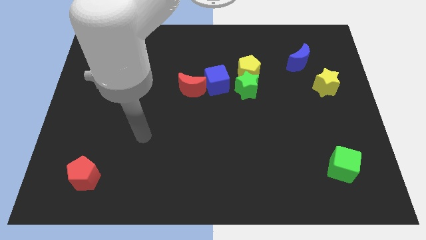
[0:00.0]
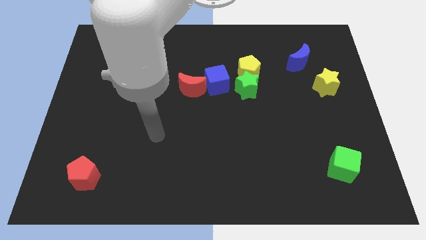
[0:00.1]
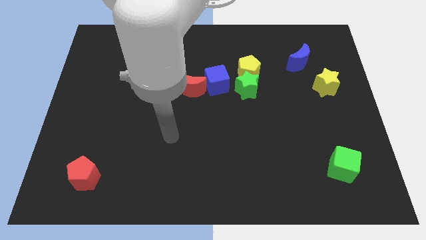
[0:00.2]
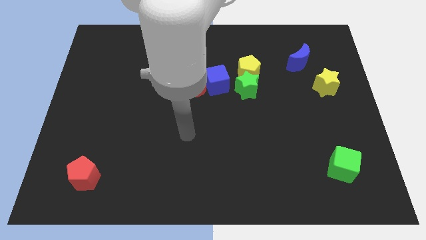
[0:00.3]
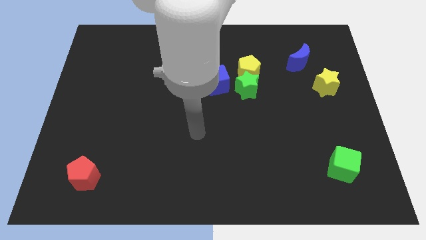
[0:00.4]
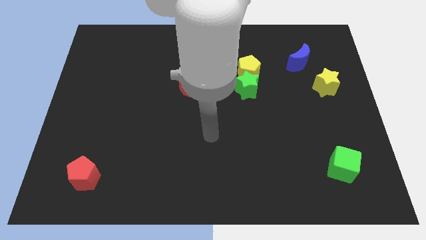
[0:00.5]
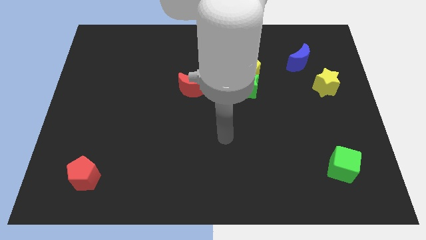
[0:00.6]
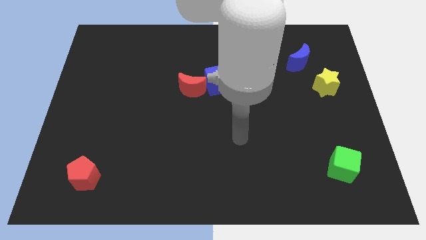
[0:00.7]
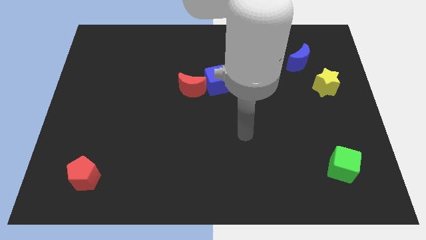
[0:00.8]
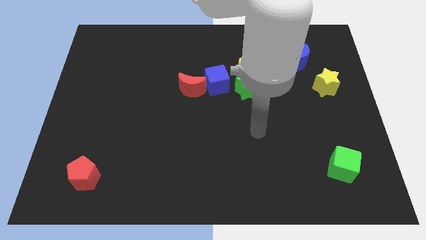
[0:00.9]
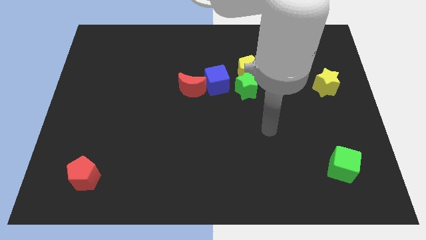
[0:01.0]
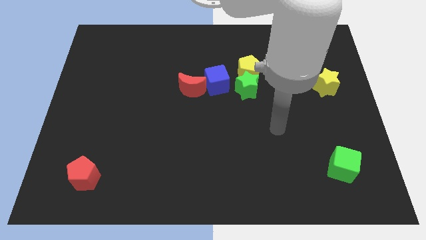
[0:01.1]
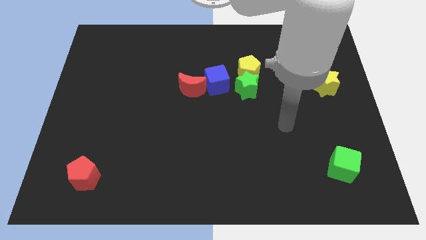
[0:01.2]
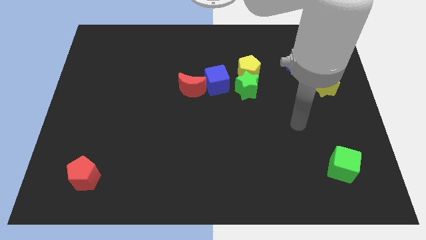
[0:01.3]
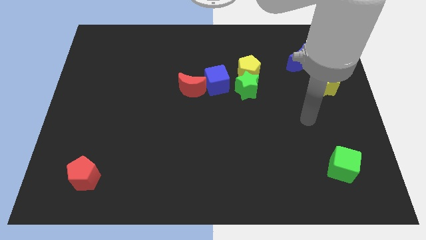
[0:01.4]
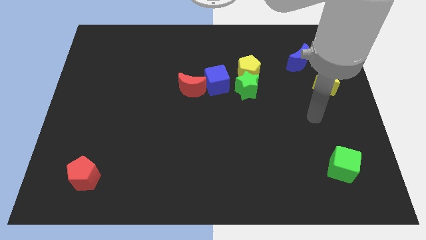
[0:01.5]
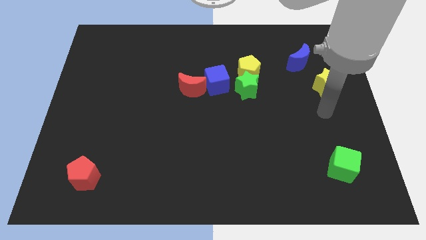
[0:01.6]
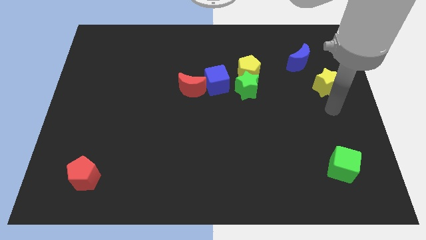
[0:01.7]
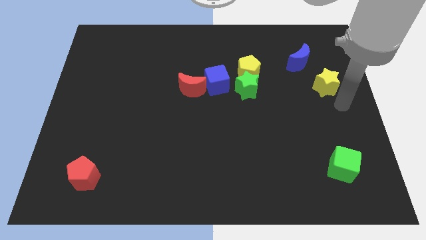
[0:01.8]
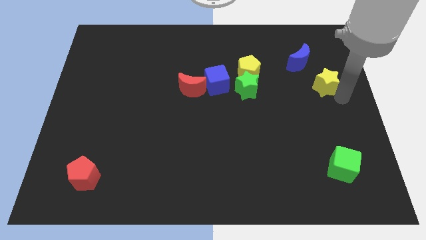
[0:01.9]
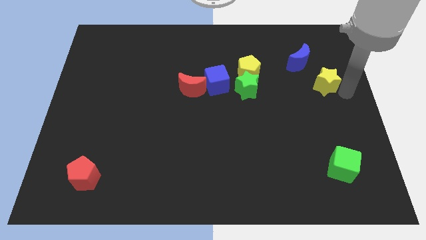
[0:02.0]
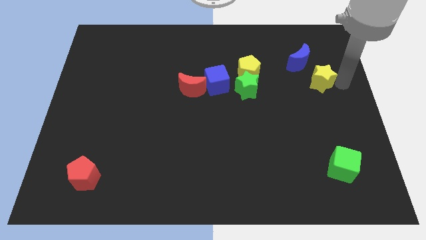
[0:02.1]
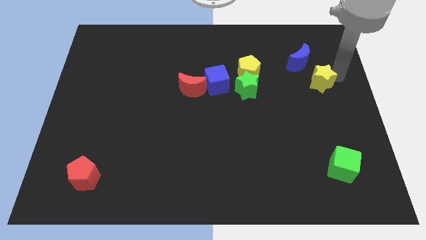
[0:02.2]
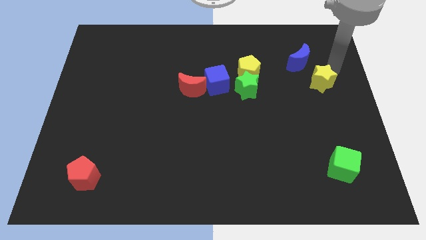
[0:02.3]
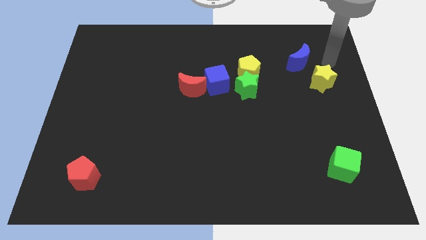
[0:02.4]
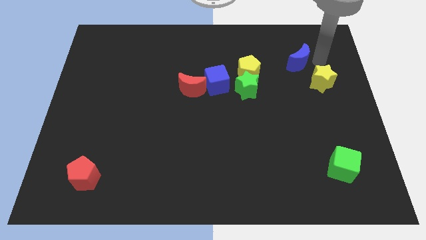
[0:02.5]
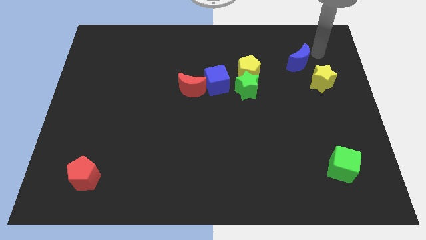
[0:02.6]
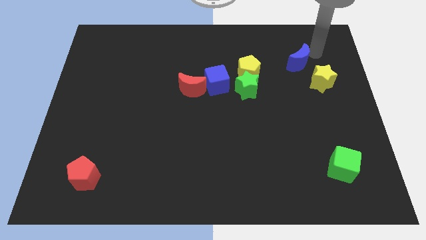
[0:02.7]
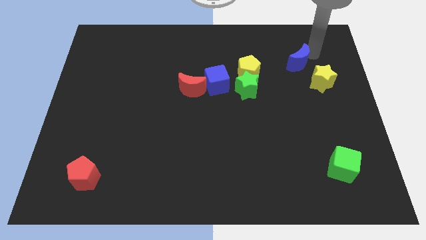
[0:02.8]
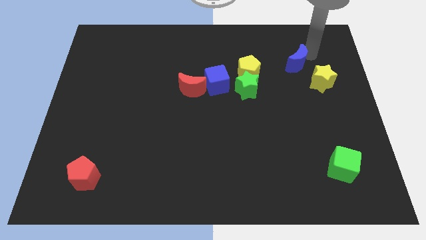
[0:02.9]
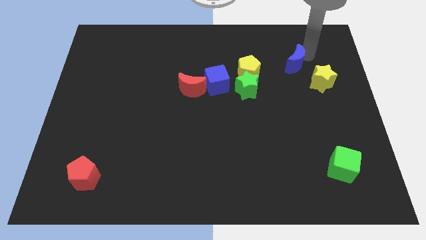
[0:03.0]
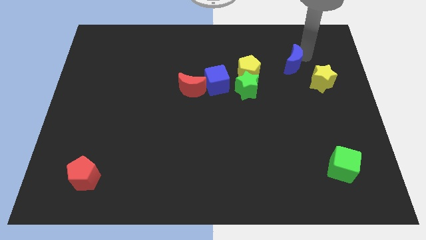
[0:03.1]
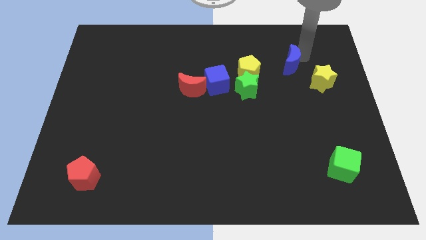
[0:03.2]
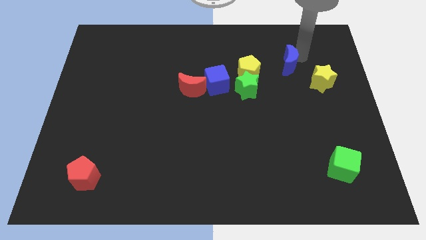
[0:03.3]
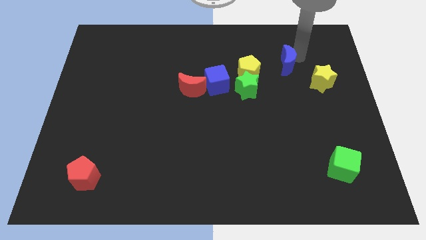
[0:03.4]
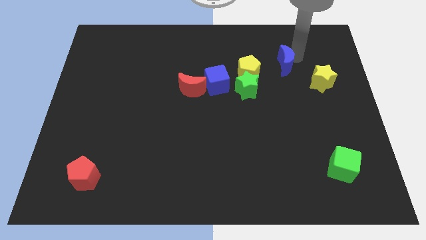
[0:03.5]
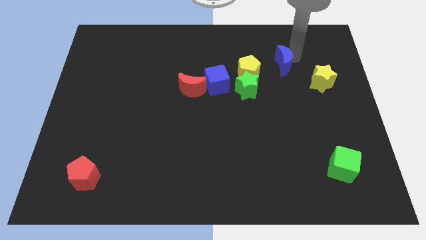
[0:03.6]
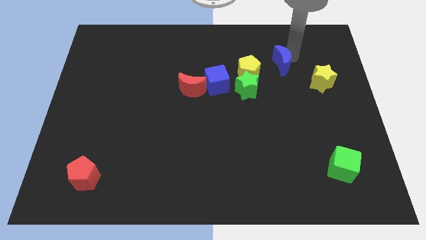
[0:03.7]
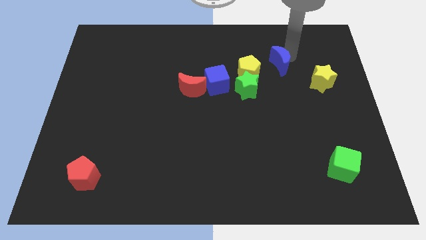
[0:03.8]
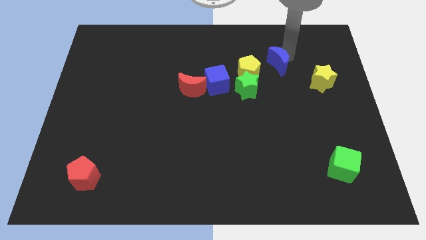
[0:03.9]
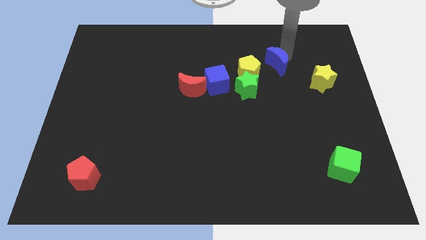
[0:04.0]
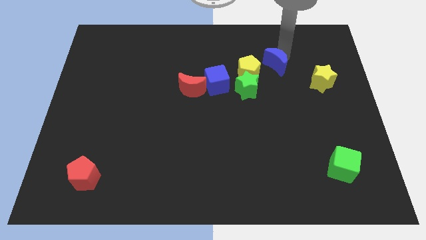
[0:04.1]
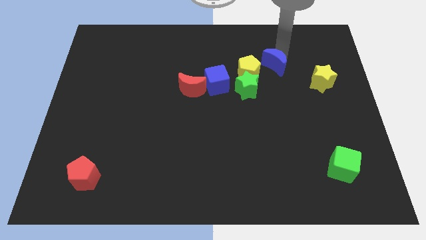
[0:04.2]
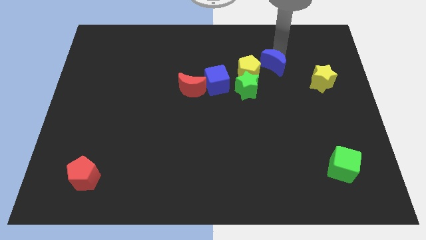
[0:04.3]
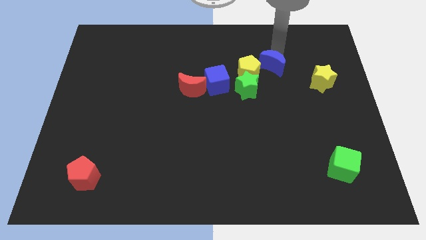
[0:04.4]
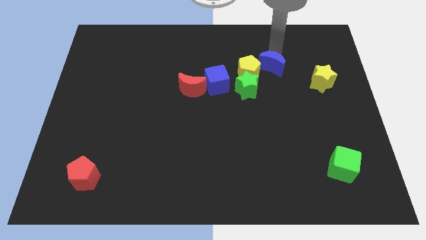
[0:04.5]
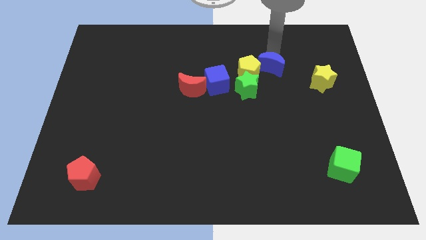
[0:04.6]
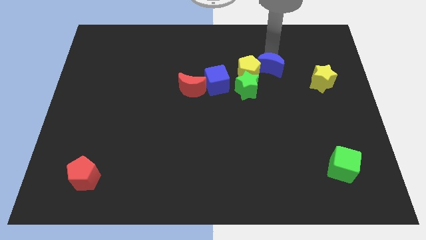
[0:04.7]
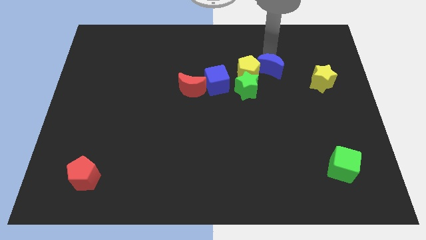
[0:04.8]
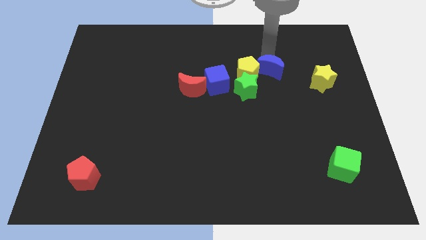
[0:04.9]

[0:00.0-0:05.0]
slightly slide the blue moon diagonally down and to the left

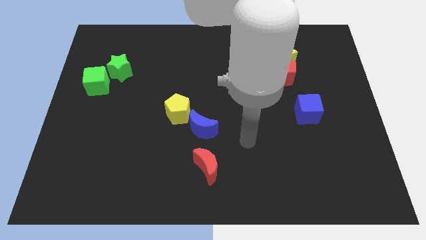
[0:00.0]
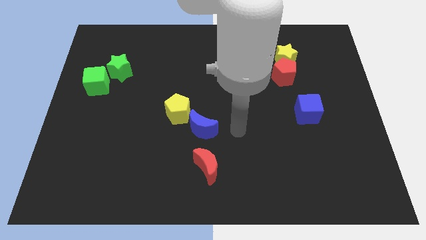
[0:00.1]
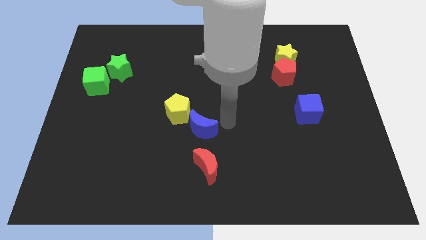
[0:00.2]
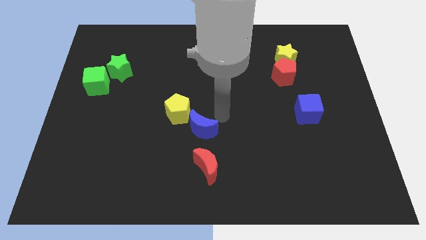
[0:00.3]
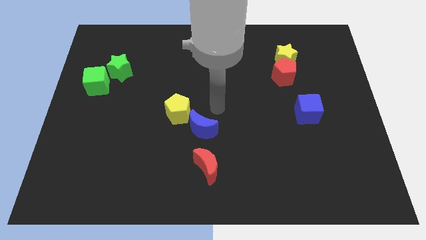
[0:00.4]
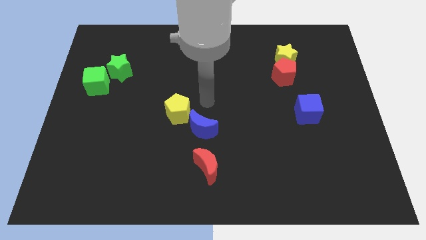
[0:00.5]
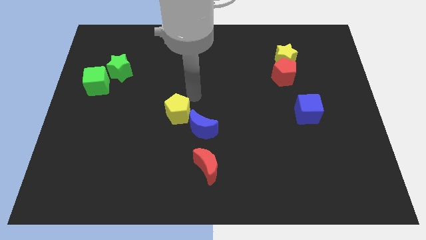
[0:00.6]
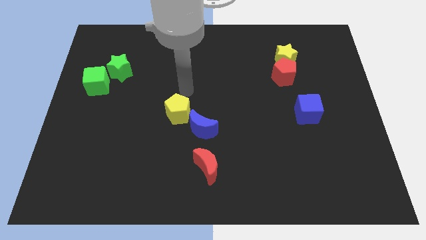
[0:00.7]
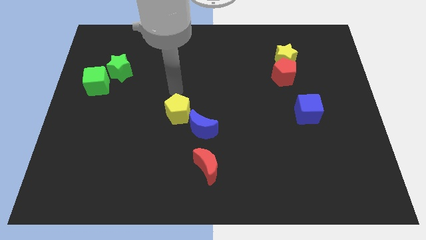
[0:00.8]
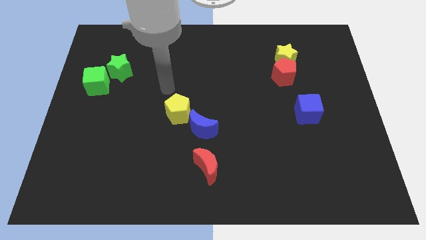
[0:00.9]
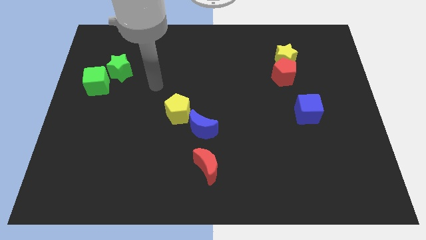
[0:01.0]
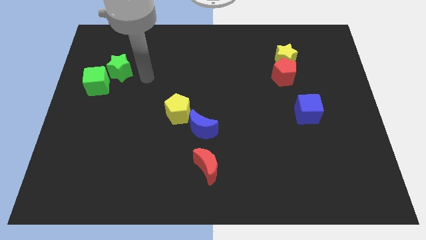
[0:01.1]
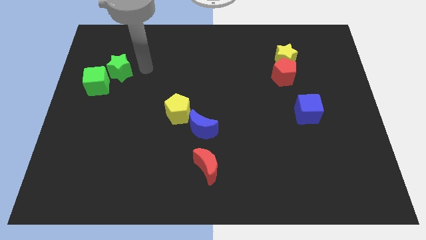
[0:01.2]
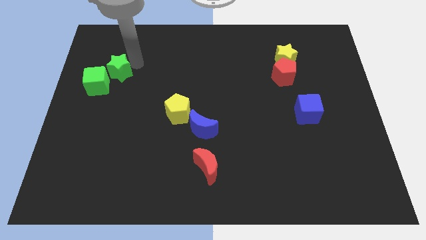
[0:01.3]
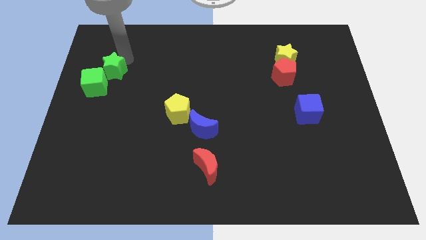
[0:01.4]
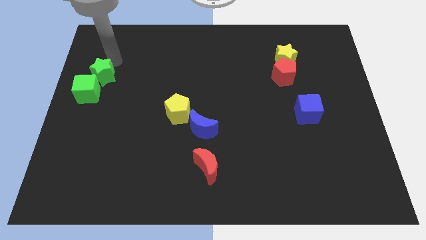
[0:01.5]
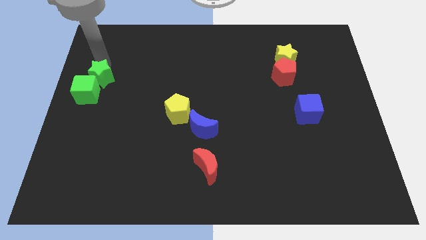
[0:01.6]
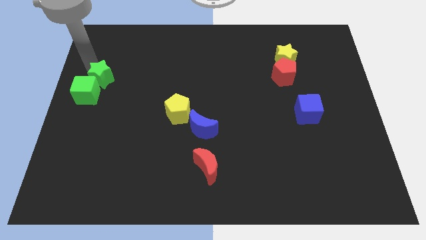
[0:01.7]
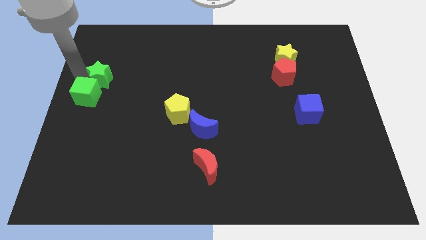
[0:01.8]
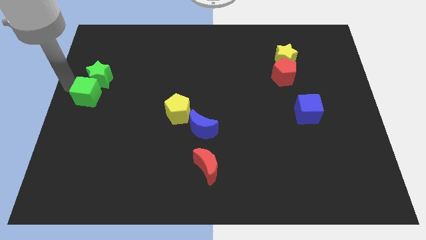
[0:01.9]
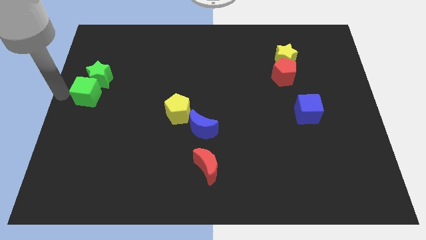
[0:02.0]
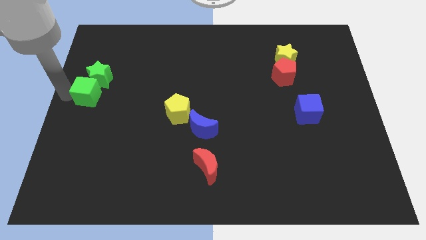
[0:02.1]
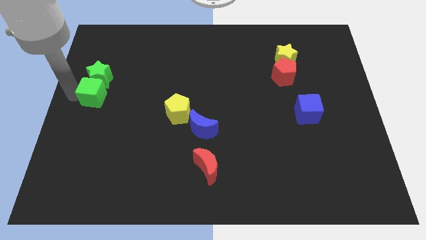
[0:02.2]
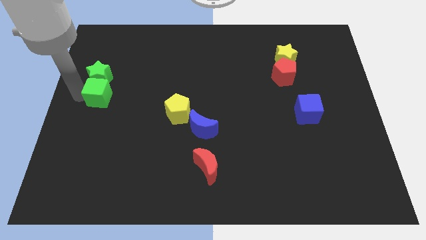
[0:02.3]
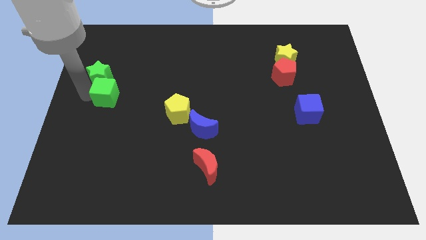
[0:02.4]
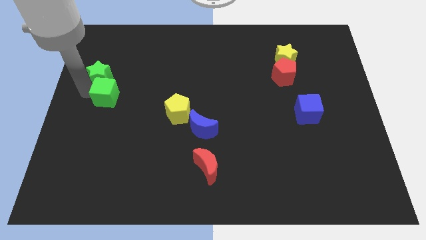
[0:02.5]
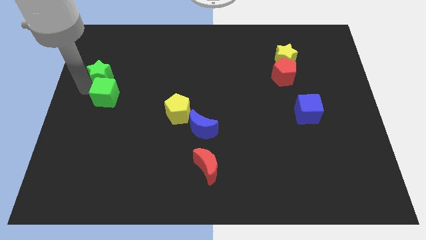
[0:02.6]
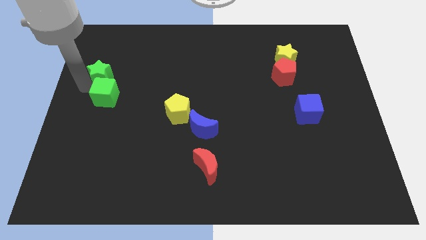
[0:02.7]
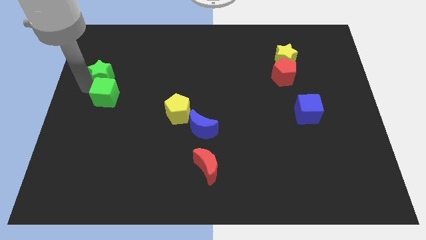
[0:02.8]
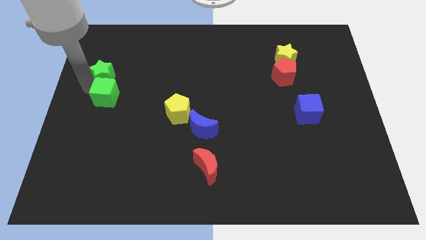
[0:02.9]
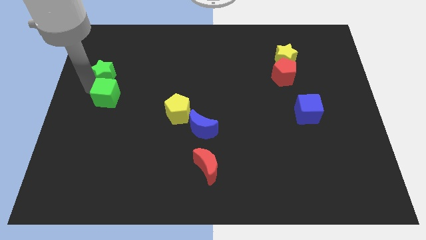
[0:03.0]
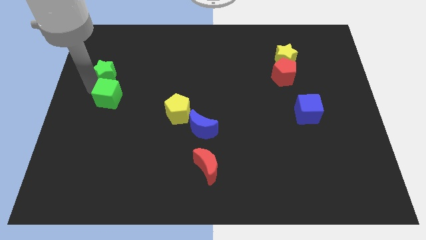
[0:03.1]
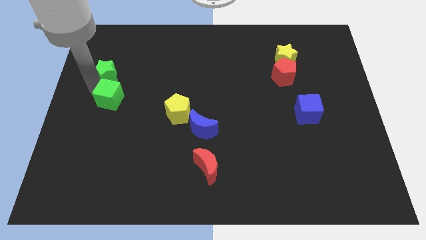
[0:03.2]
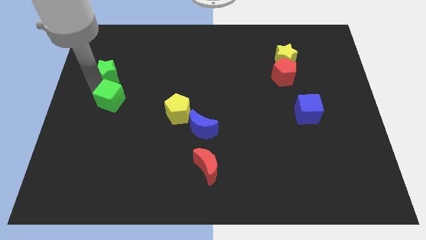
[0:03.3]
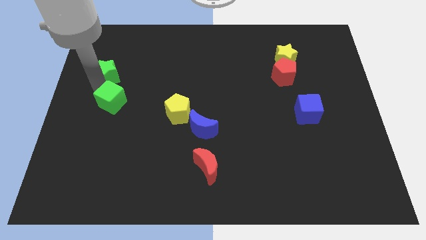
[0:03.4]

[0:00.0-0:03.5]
slide the green cube a bit diagonally downwards and to the right
